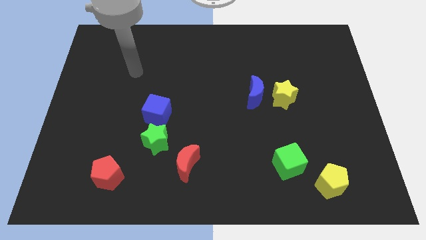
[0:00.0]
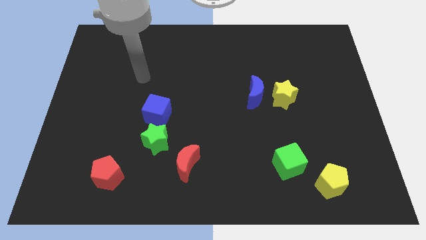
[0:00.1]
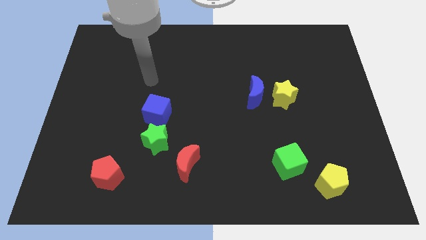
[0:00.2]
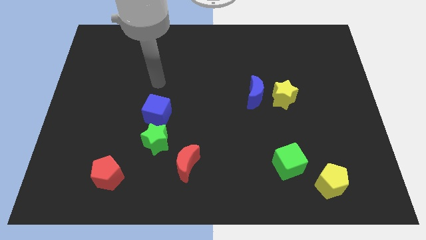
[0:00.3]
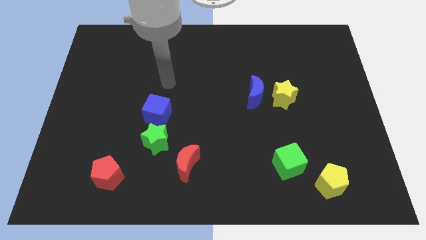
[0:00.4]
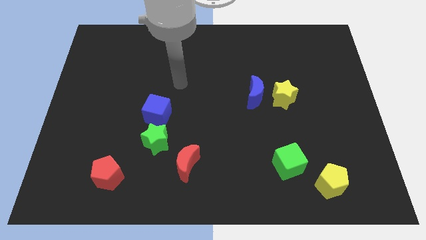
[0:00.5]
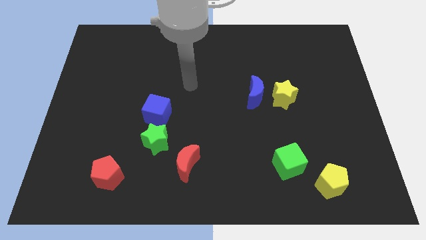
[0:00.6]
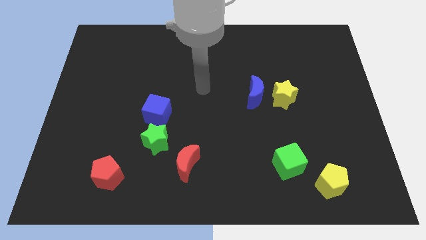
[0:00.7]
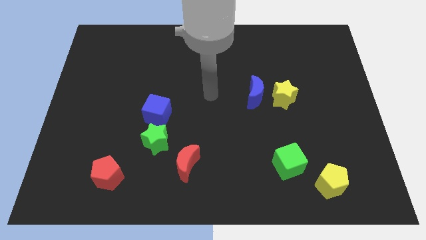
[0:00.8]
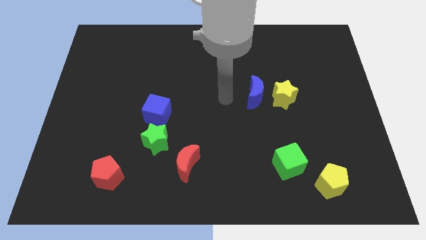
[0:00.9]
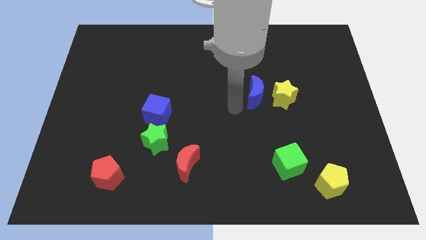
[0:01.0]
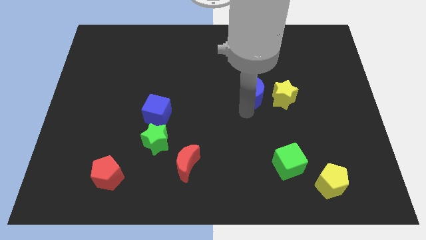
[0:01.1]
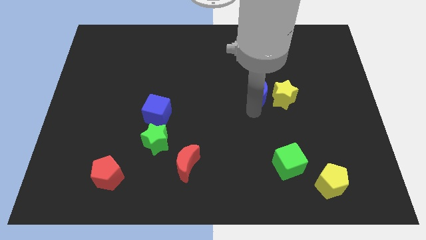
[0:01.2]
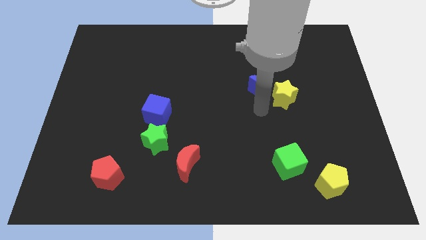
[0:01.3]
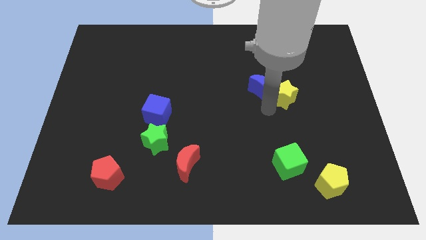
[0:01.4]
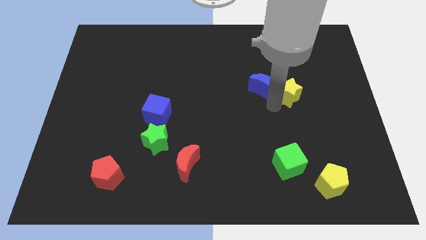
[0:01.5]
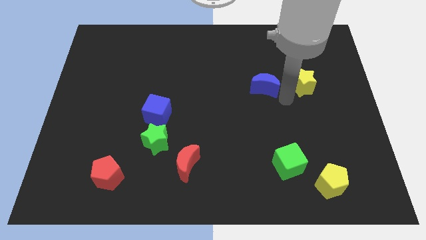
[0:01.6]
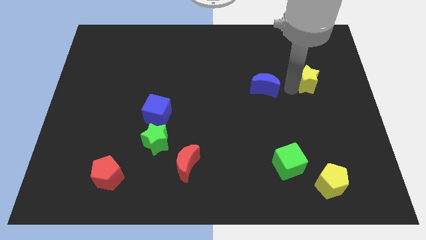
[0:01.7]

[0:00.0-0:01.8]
pull the blue moon apart from the yellow star

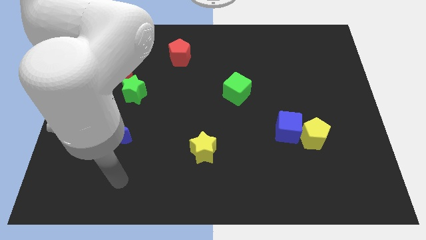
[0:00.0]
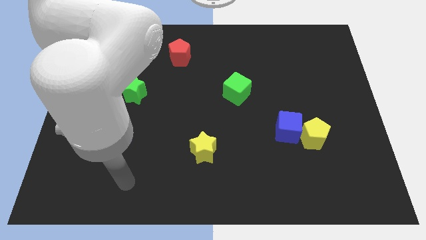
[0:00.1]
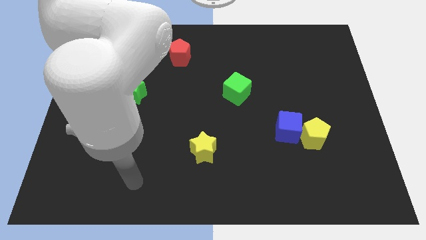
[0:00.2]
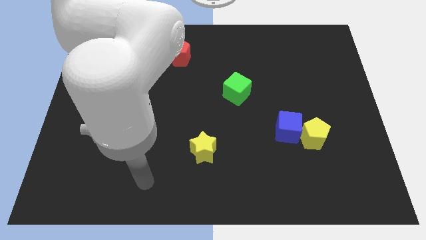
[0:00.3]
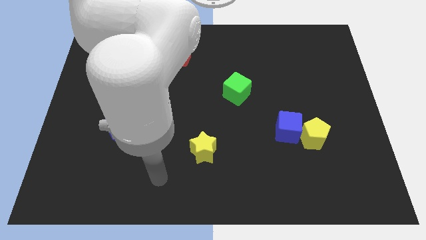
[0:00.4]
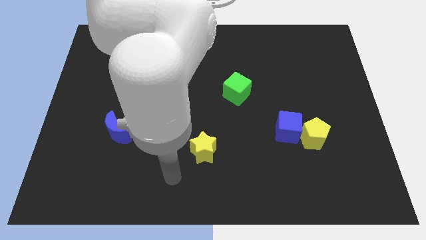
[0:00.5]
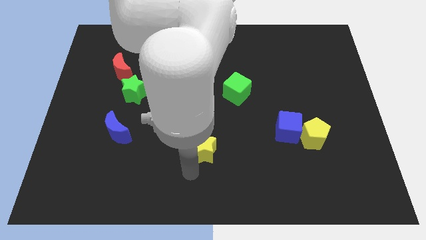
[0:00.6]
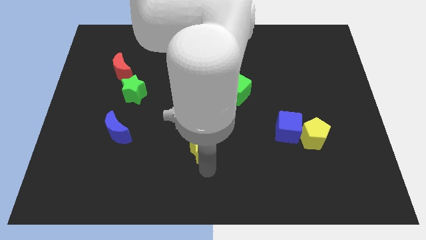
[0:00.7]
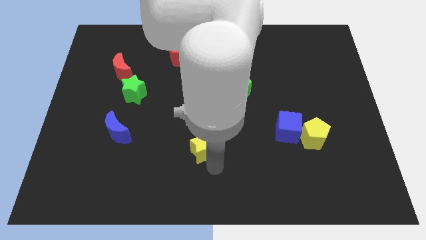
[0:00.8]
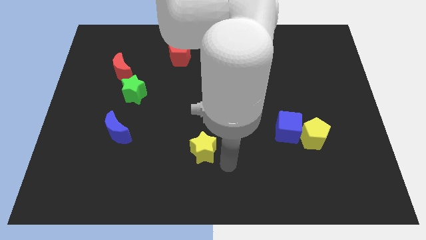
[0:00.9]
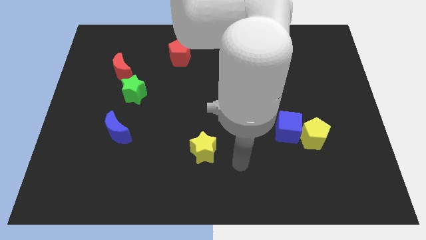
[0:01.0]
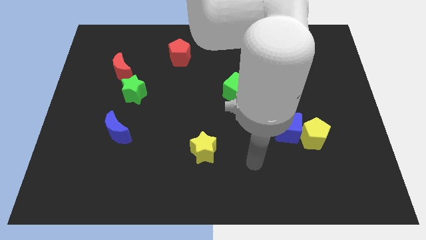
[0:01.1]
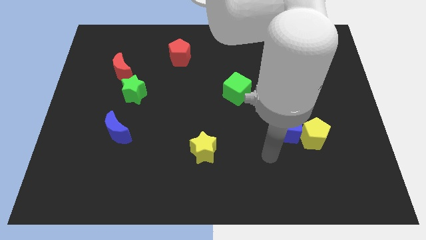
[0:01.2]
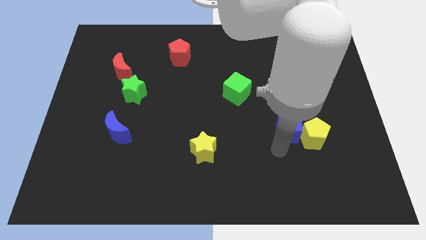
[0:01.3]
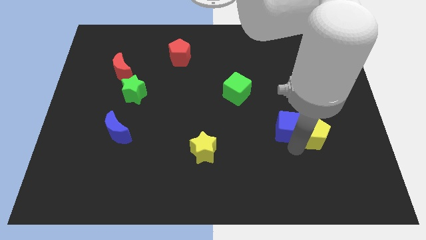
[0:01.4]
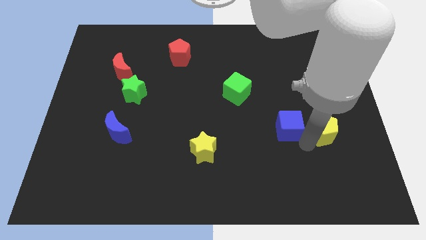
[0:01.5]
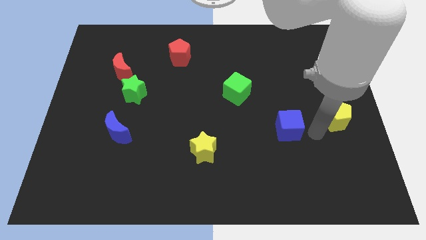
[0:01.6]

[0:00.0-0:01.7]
separate the blue cube from the yellow pentagon

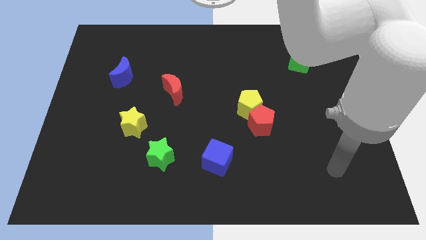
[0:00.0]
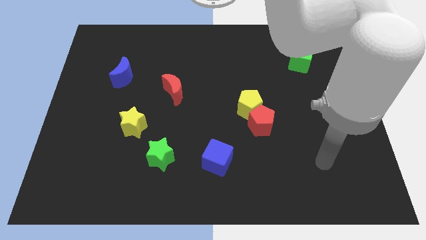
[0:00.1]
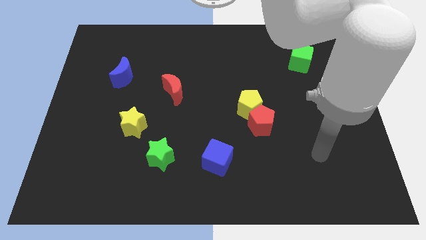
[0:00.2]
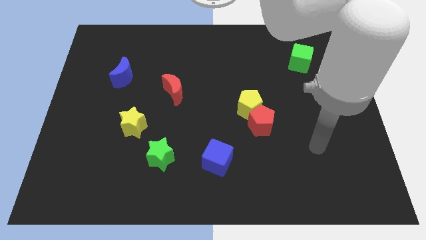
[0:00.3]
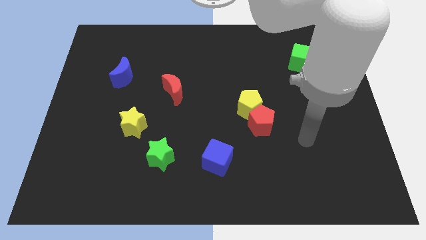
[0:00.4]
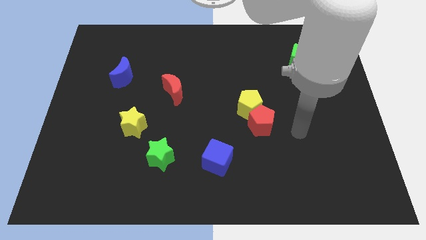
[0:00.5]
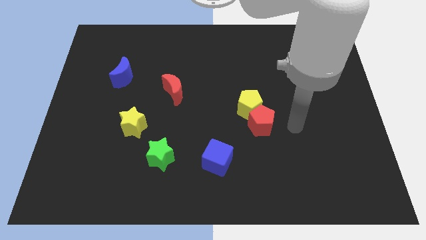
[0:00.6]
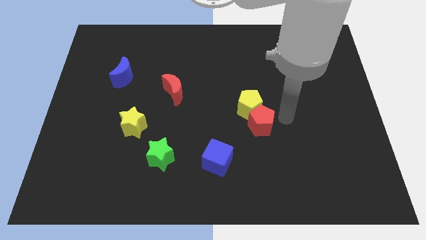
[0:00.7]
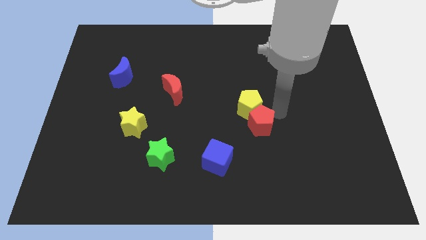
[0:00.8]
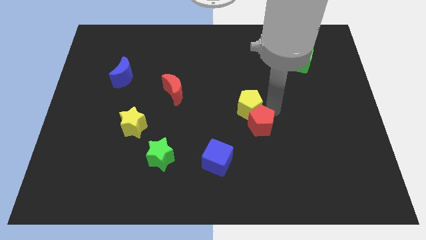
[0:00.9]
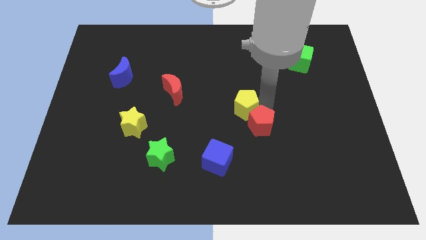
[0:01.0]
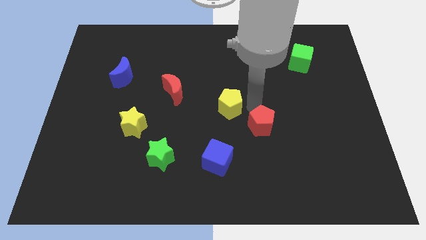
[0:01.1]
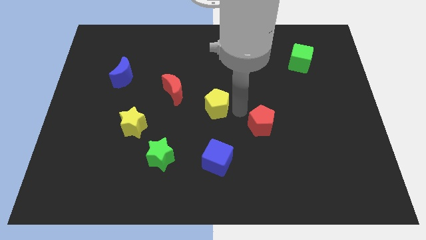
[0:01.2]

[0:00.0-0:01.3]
separate the red pentagon from the yellow pentagon

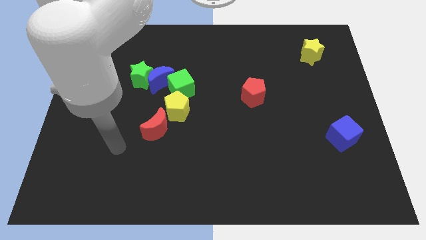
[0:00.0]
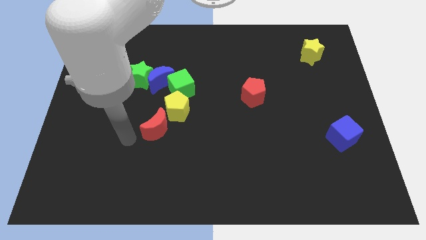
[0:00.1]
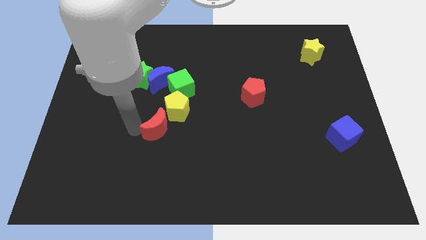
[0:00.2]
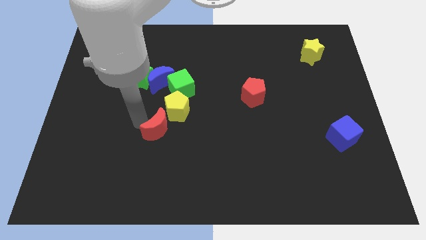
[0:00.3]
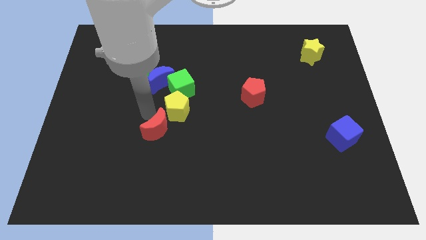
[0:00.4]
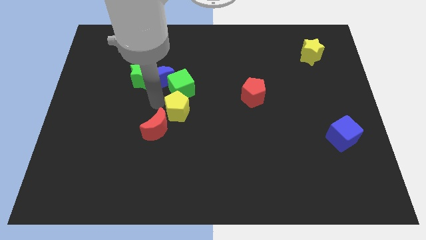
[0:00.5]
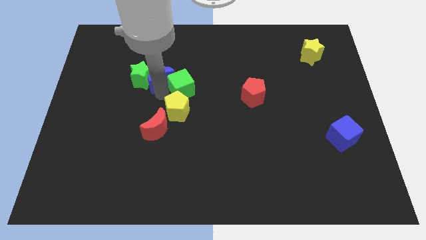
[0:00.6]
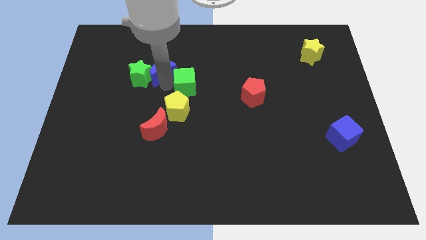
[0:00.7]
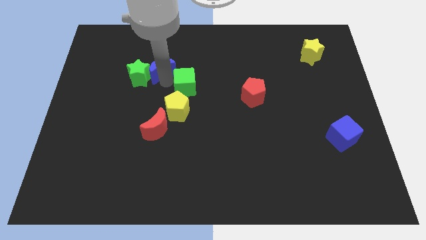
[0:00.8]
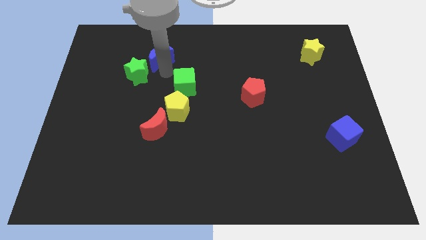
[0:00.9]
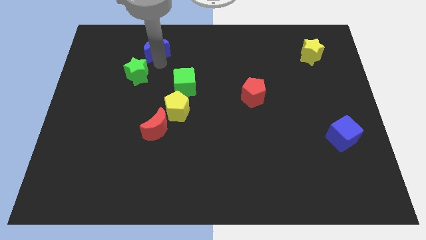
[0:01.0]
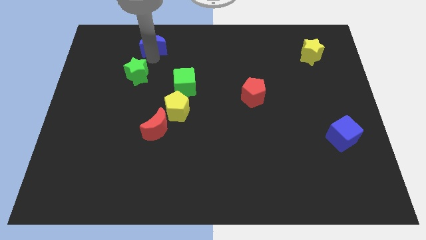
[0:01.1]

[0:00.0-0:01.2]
pull the green star apart from the blue moon

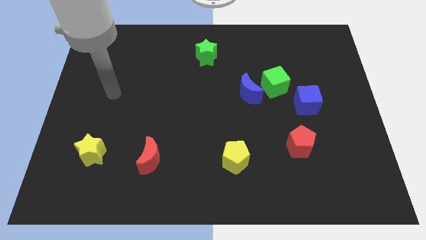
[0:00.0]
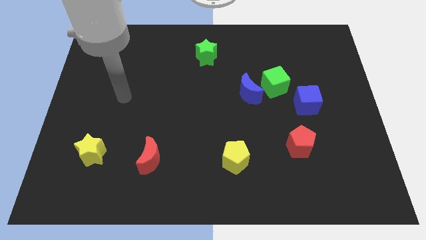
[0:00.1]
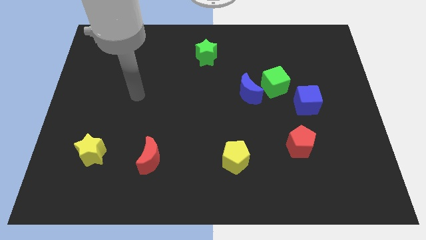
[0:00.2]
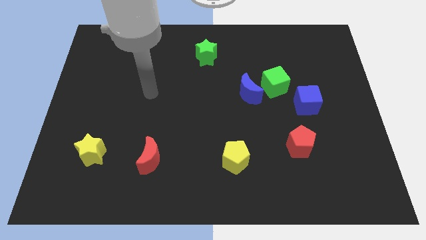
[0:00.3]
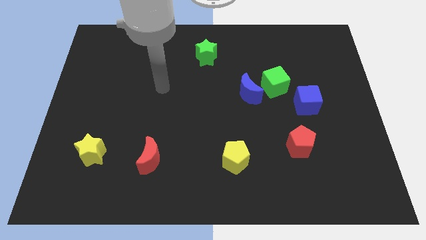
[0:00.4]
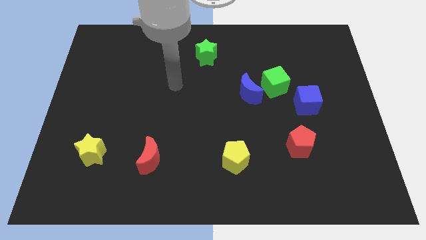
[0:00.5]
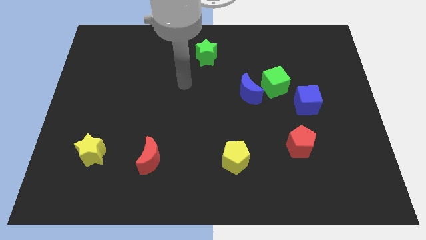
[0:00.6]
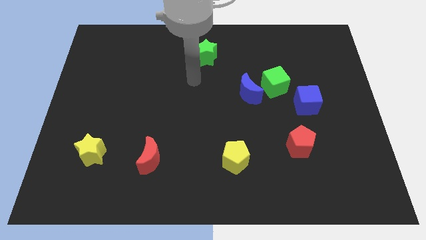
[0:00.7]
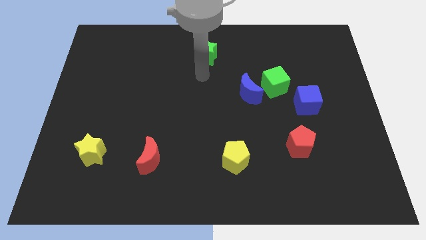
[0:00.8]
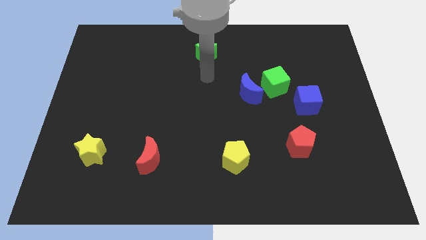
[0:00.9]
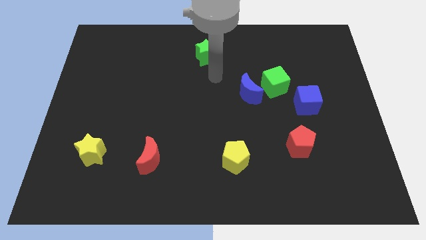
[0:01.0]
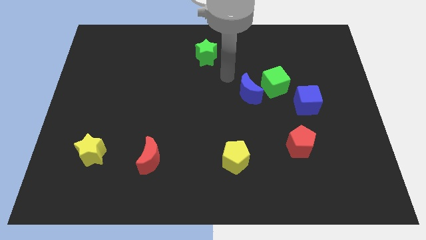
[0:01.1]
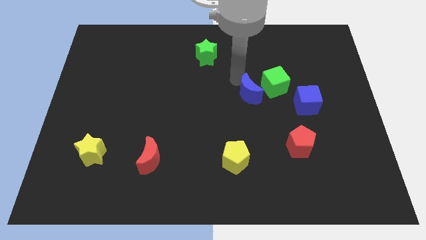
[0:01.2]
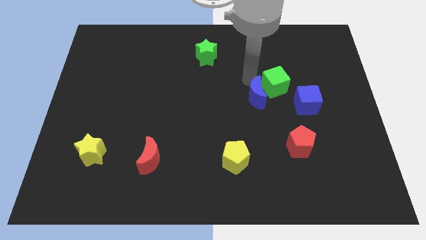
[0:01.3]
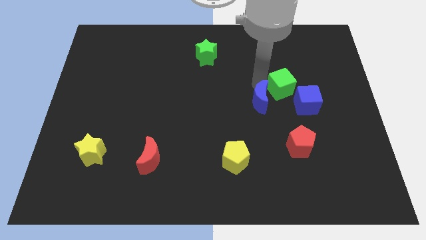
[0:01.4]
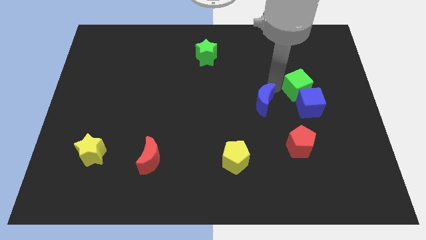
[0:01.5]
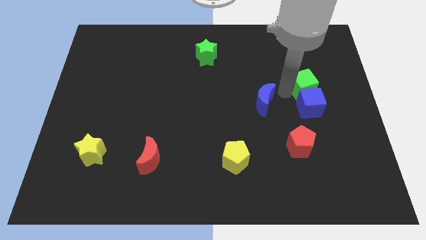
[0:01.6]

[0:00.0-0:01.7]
pull the blue moon apart from the green cube

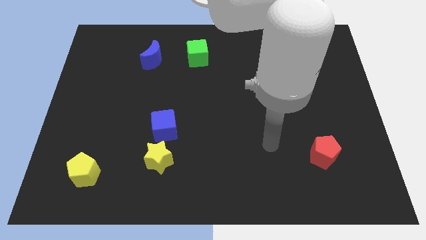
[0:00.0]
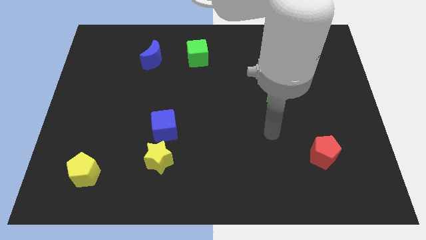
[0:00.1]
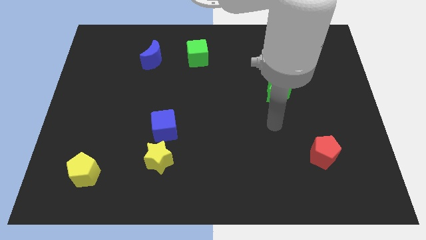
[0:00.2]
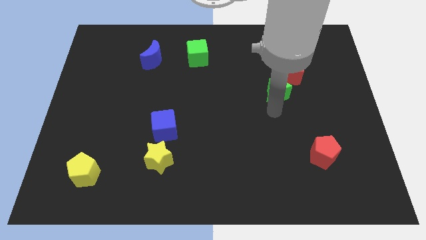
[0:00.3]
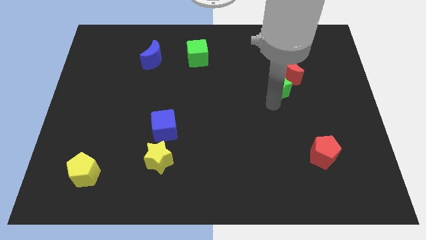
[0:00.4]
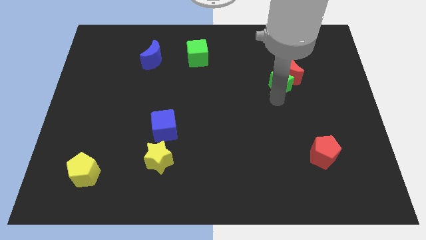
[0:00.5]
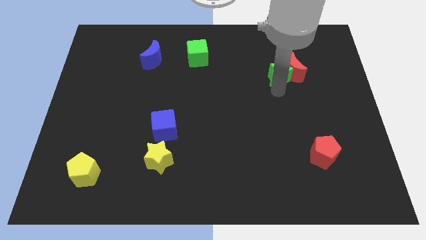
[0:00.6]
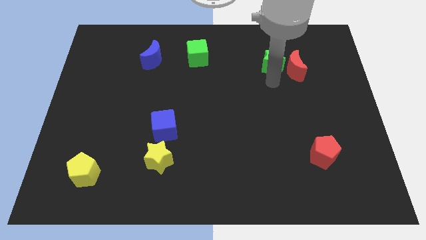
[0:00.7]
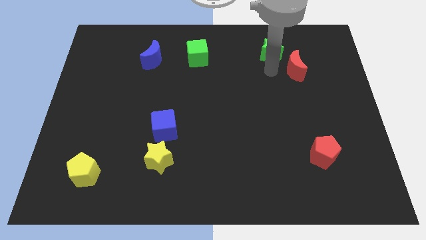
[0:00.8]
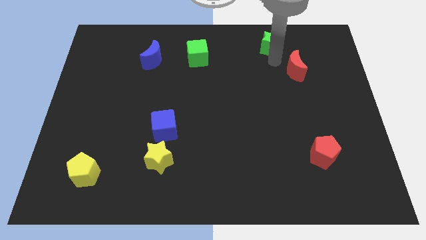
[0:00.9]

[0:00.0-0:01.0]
pull the red moon apart from the green star

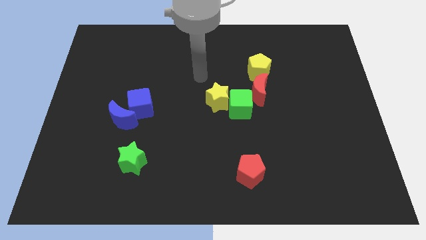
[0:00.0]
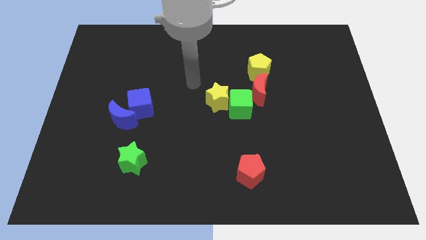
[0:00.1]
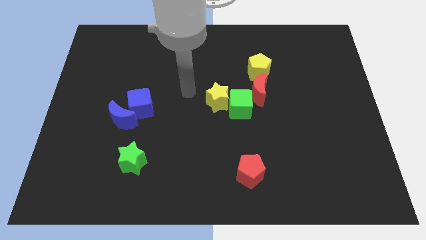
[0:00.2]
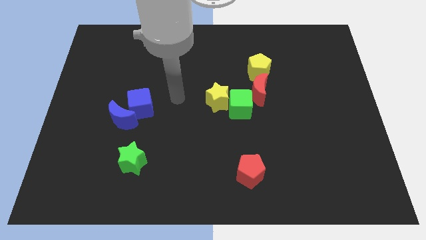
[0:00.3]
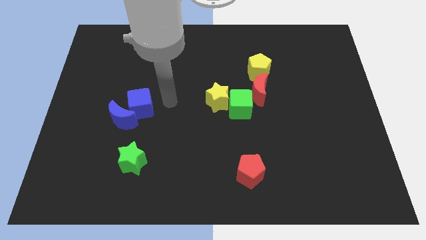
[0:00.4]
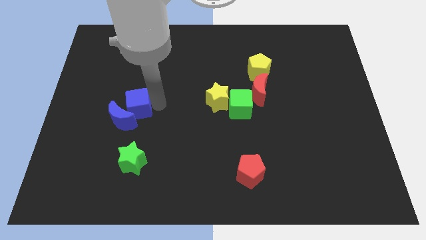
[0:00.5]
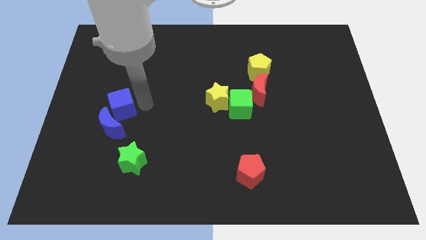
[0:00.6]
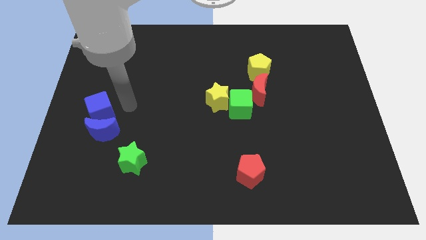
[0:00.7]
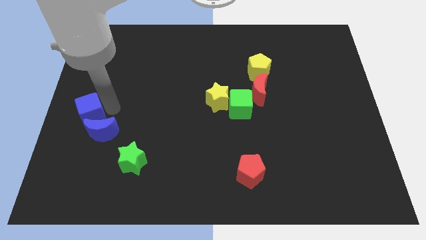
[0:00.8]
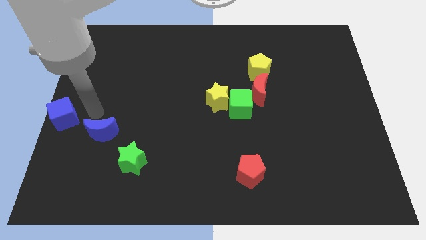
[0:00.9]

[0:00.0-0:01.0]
separate the blue moon from the blue cube
